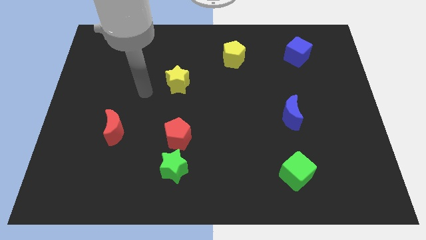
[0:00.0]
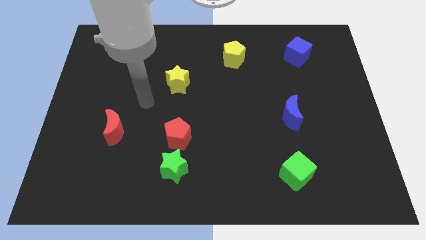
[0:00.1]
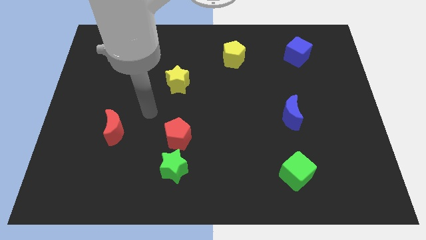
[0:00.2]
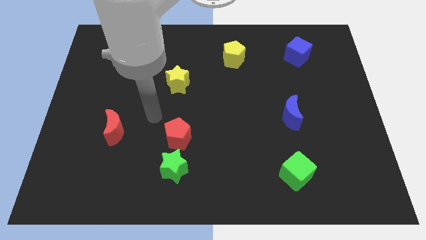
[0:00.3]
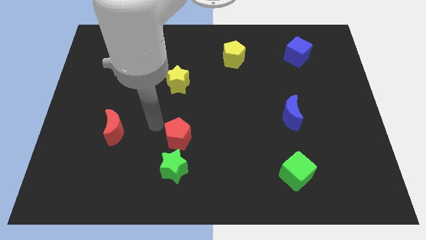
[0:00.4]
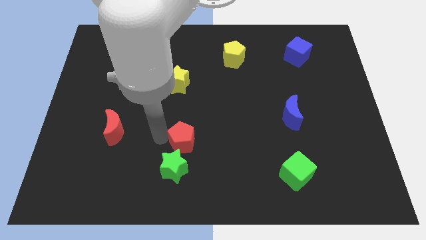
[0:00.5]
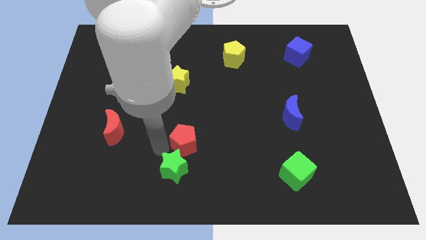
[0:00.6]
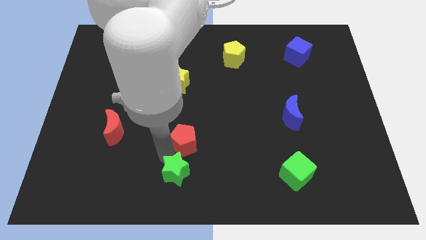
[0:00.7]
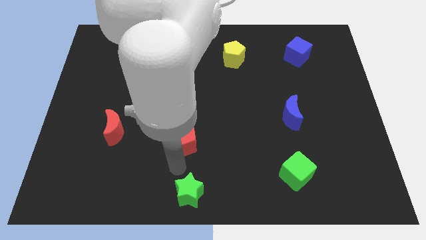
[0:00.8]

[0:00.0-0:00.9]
pull the red pentagon apart from the green star

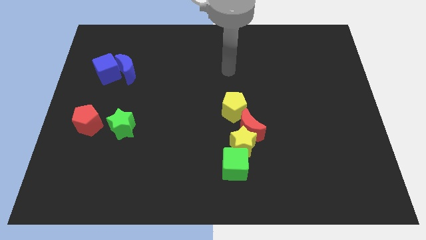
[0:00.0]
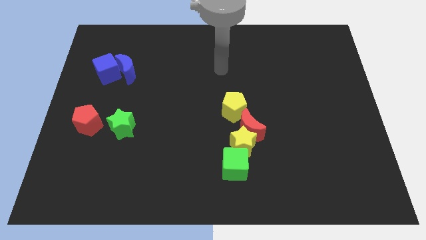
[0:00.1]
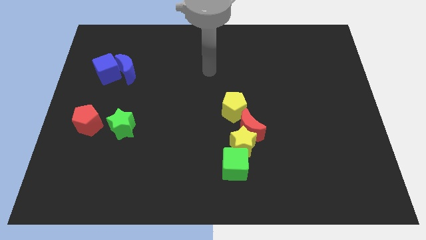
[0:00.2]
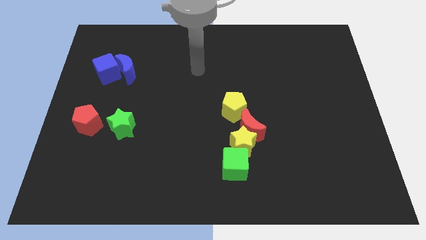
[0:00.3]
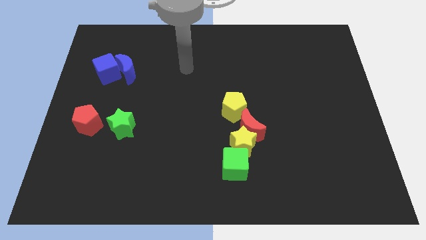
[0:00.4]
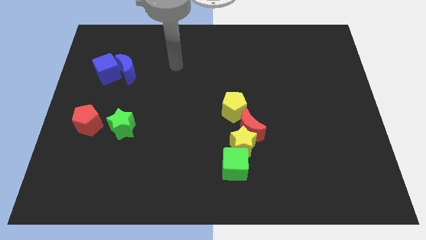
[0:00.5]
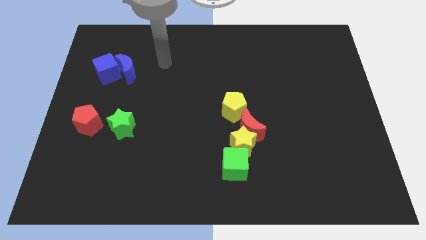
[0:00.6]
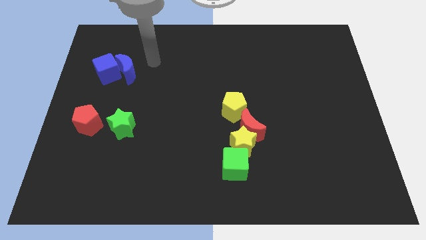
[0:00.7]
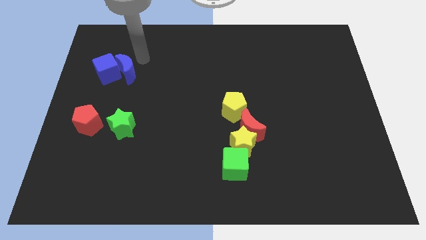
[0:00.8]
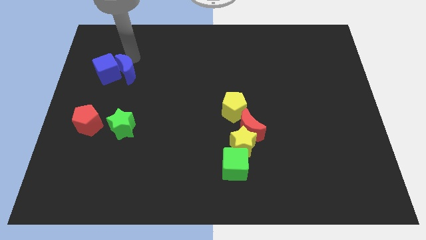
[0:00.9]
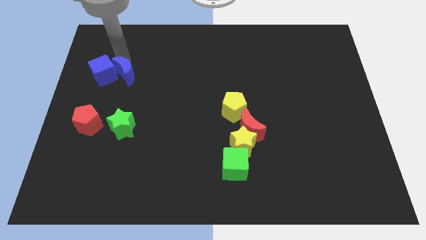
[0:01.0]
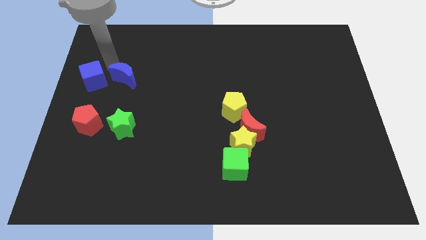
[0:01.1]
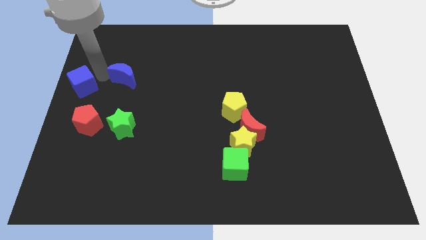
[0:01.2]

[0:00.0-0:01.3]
move the blue moon away from the blue cube

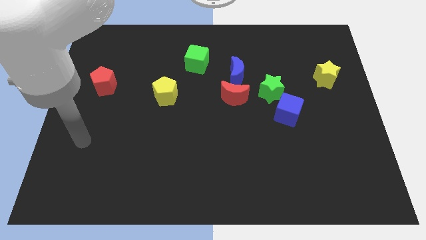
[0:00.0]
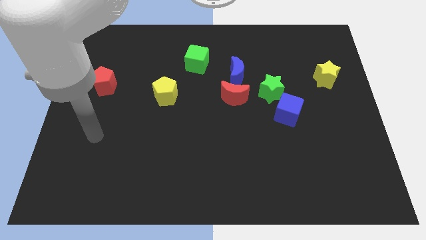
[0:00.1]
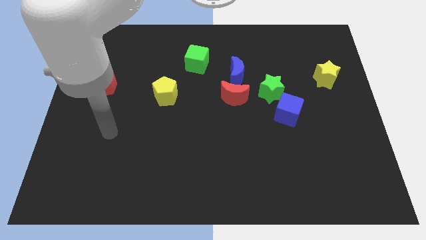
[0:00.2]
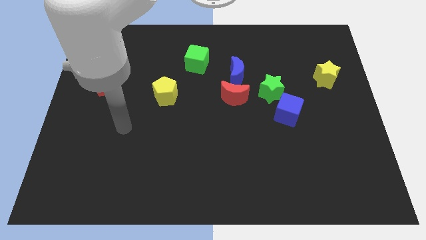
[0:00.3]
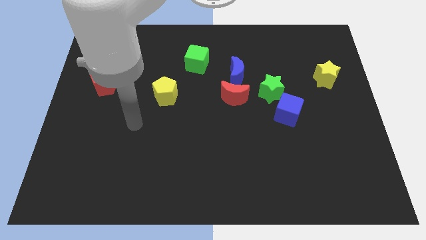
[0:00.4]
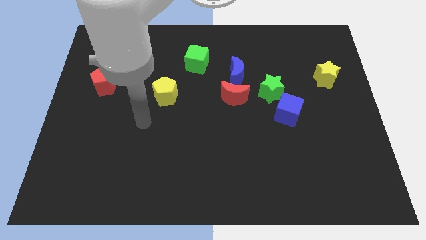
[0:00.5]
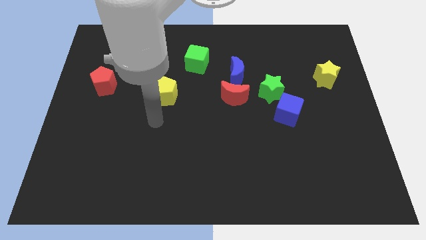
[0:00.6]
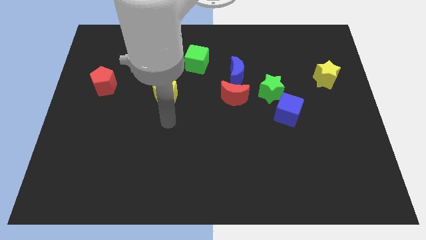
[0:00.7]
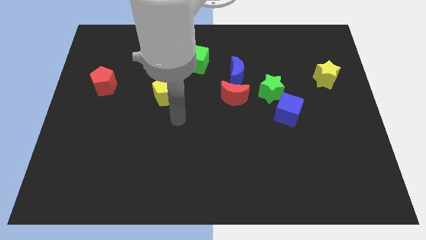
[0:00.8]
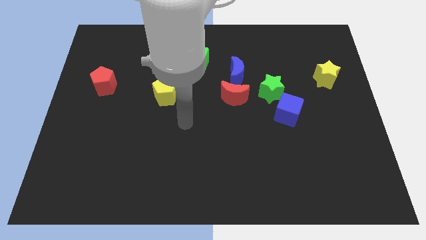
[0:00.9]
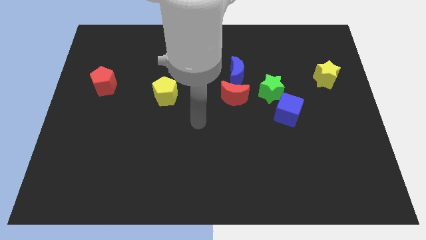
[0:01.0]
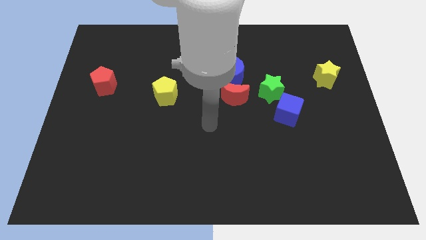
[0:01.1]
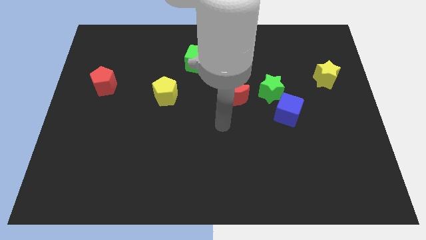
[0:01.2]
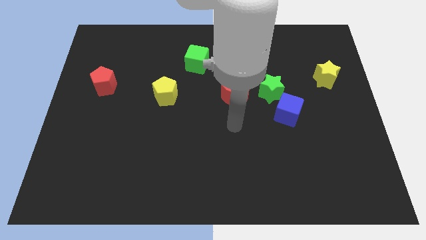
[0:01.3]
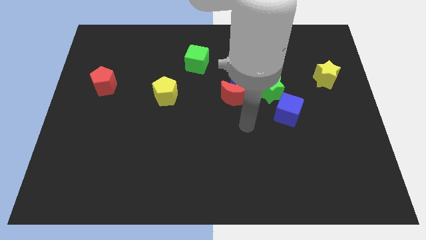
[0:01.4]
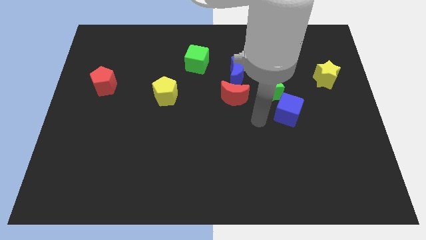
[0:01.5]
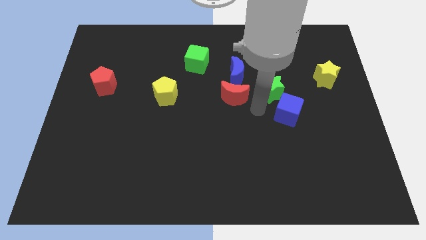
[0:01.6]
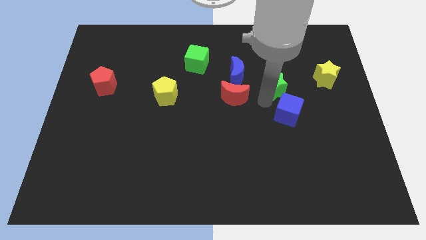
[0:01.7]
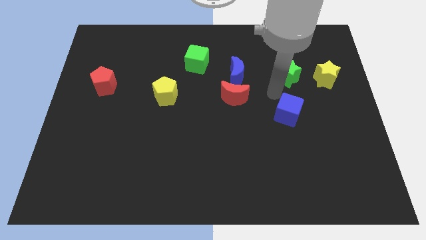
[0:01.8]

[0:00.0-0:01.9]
pull the blue cube apart from the green star

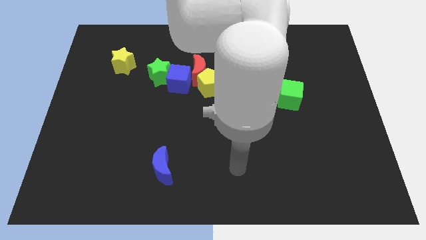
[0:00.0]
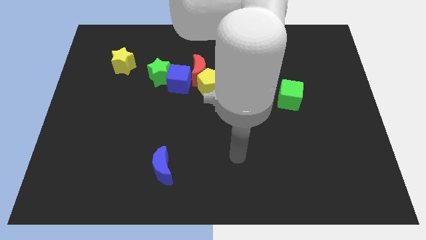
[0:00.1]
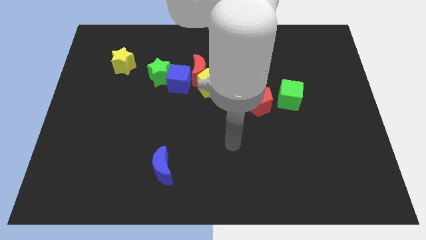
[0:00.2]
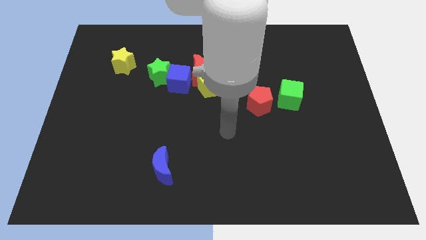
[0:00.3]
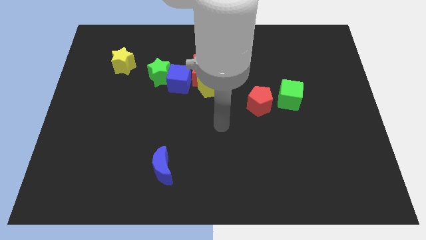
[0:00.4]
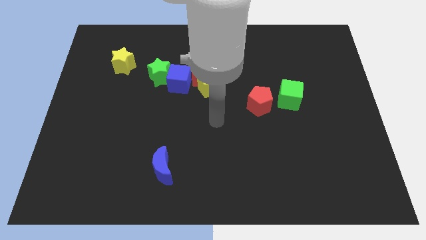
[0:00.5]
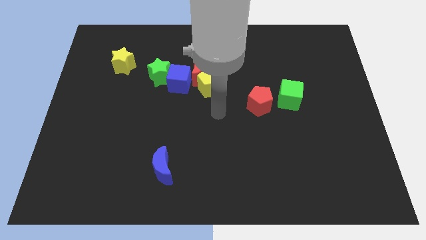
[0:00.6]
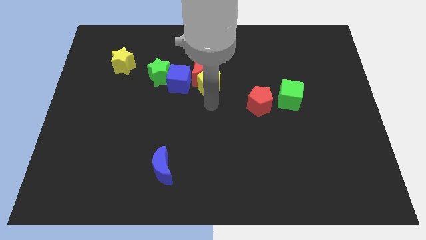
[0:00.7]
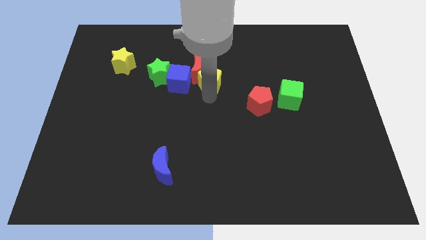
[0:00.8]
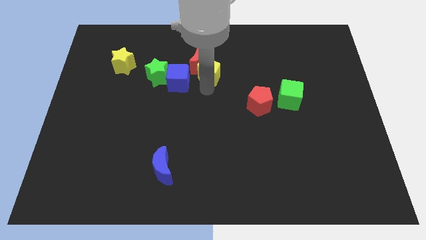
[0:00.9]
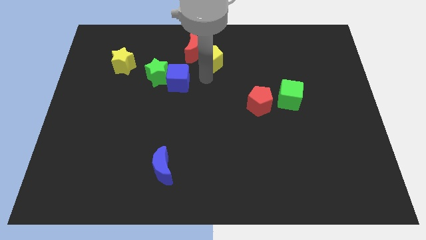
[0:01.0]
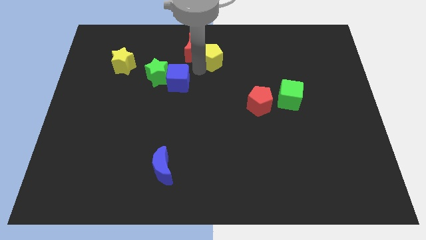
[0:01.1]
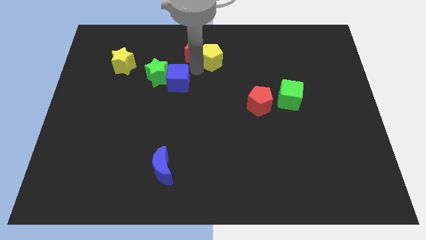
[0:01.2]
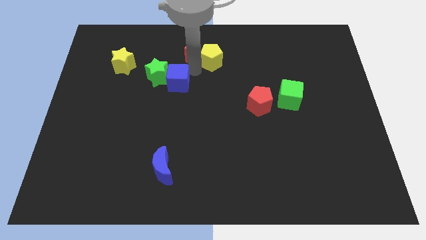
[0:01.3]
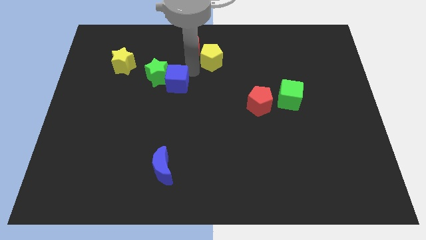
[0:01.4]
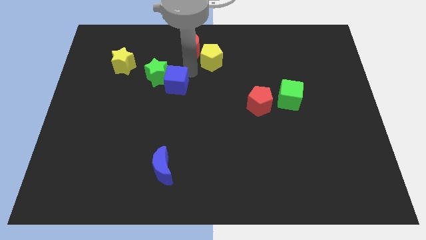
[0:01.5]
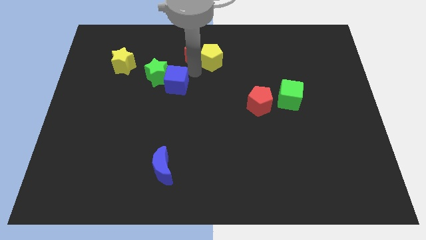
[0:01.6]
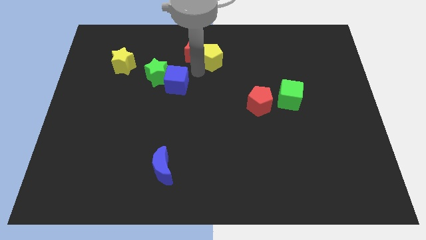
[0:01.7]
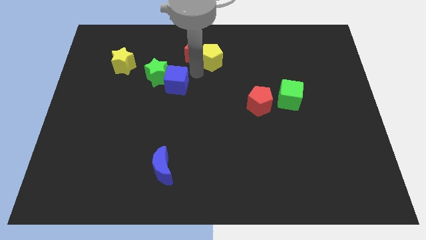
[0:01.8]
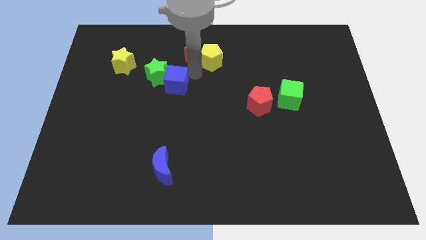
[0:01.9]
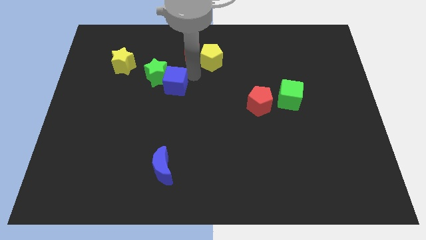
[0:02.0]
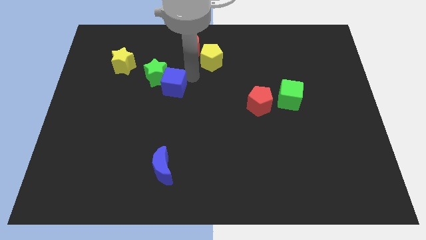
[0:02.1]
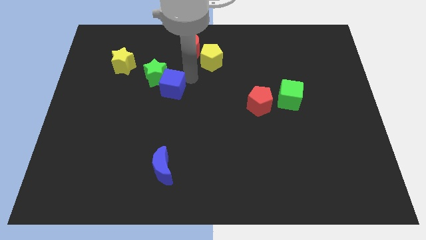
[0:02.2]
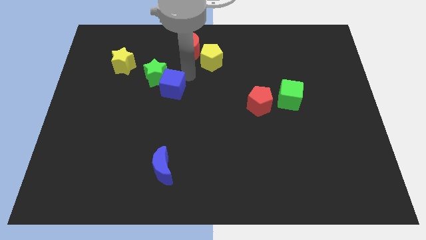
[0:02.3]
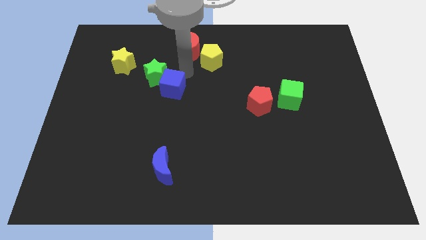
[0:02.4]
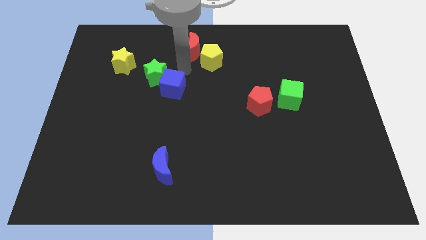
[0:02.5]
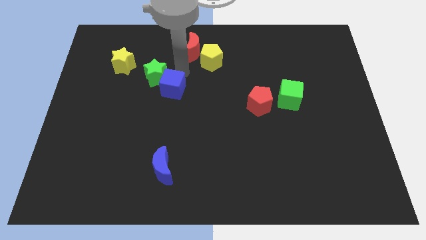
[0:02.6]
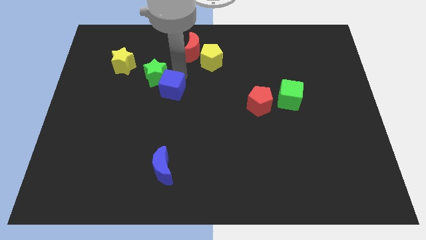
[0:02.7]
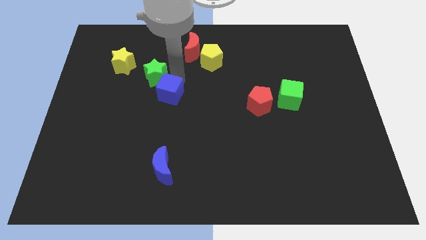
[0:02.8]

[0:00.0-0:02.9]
pull the blue cube apart from the group

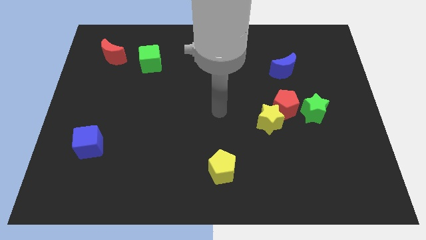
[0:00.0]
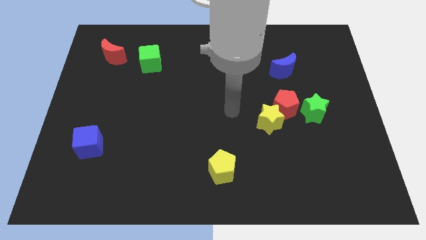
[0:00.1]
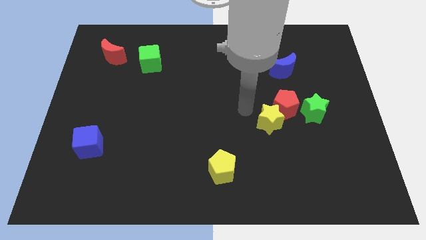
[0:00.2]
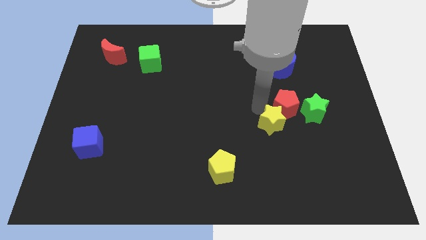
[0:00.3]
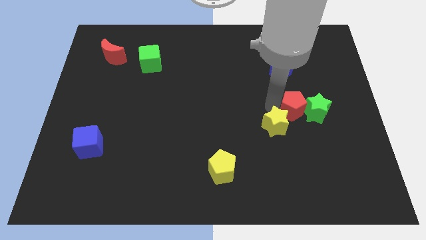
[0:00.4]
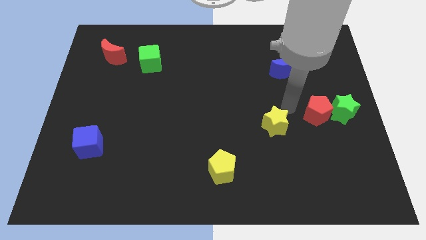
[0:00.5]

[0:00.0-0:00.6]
separate the yellow star from the red pentagon

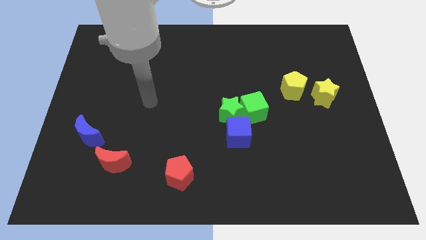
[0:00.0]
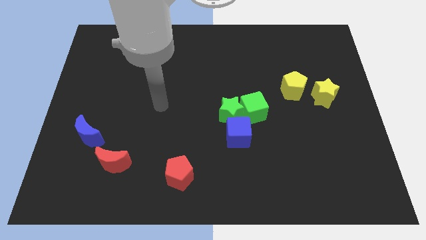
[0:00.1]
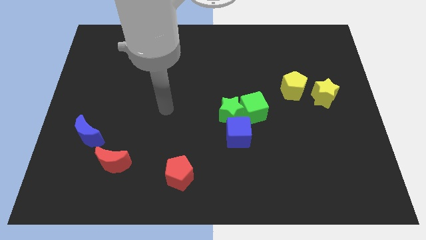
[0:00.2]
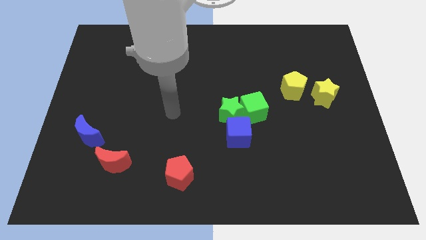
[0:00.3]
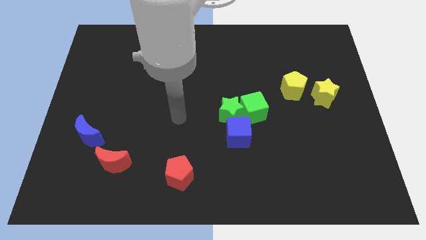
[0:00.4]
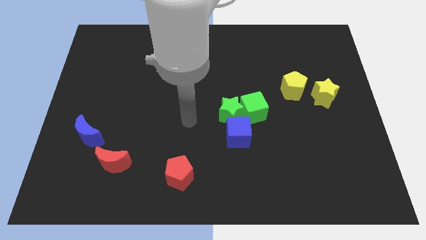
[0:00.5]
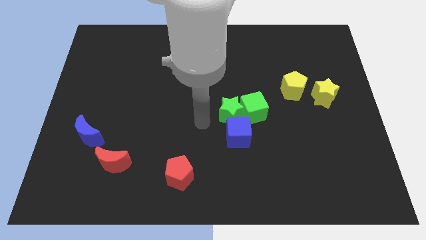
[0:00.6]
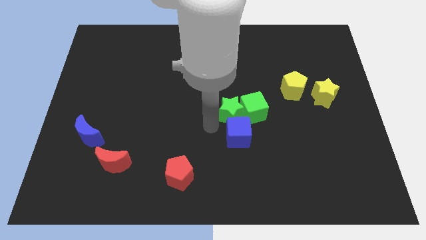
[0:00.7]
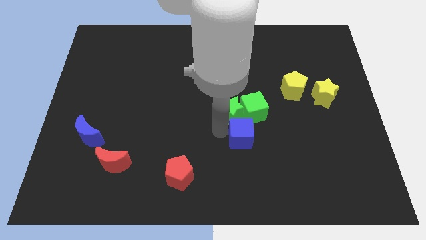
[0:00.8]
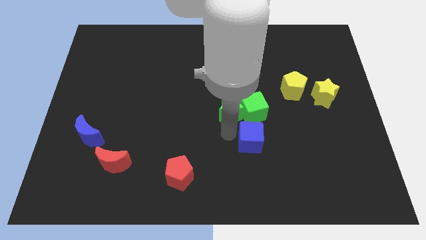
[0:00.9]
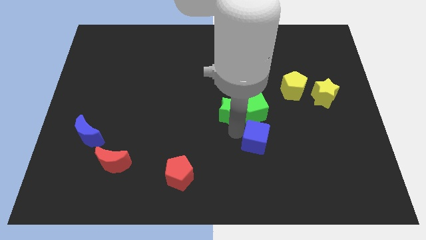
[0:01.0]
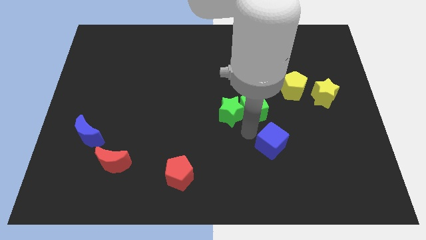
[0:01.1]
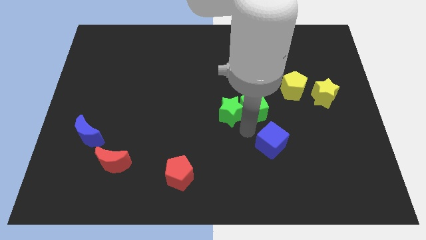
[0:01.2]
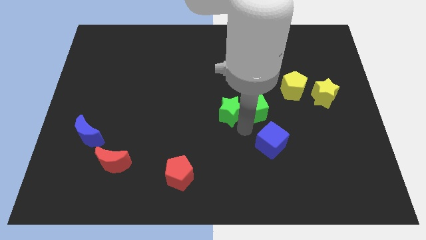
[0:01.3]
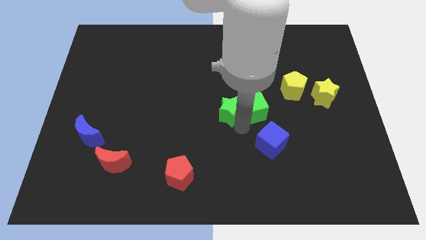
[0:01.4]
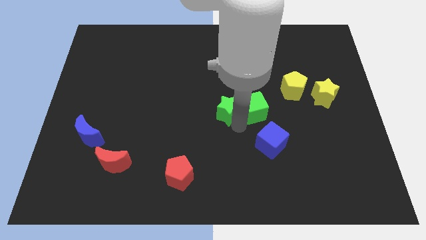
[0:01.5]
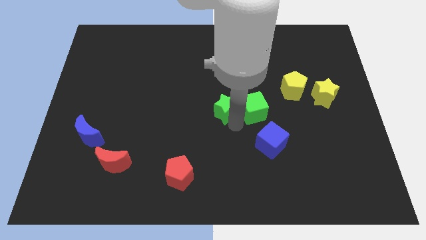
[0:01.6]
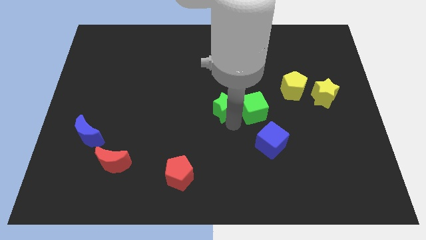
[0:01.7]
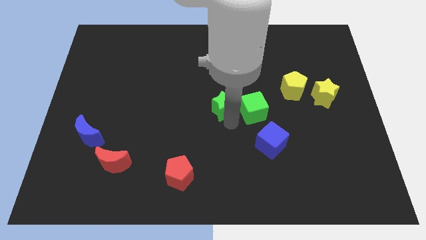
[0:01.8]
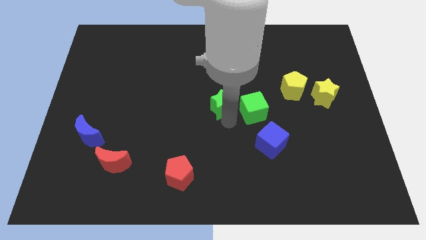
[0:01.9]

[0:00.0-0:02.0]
pull the green star apart from the green cube and blue cube
